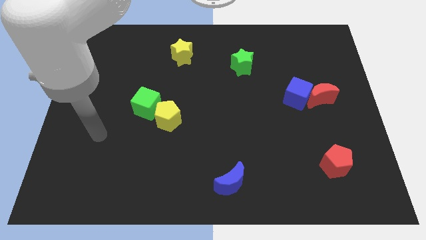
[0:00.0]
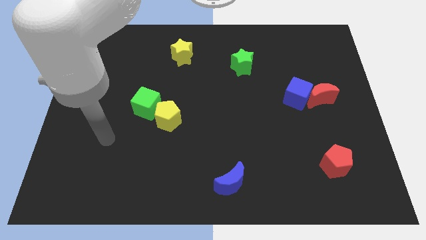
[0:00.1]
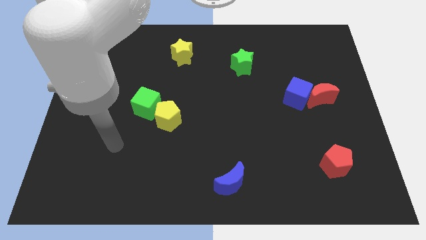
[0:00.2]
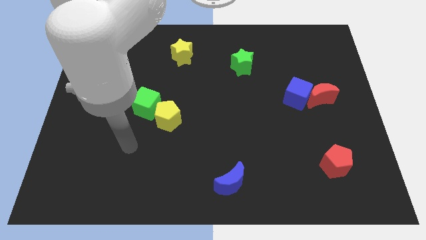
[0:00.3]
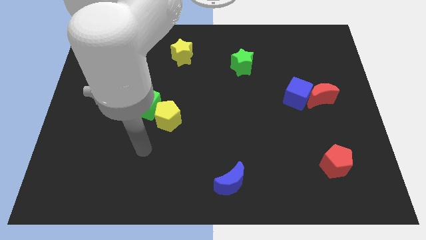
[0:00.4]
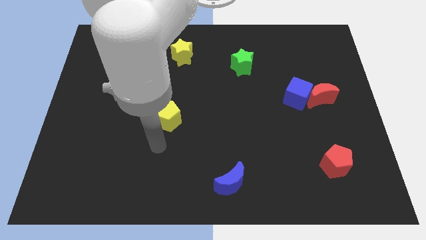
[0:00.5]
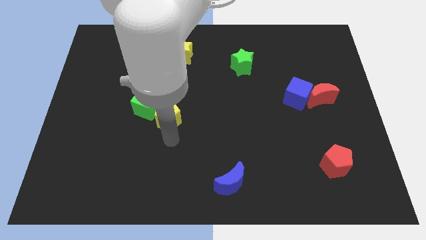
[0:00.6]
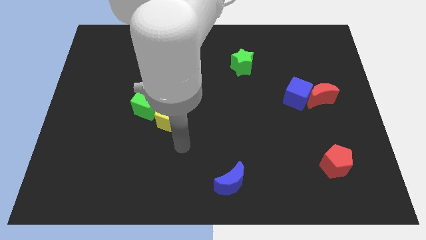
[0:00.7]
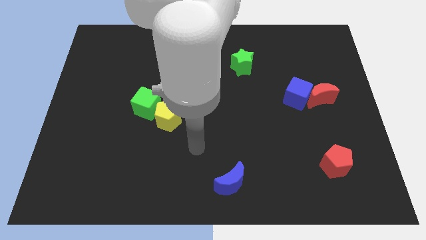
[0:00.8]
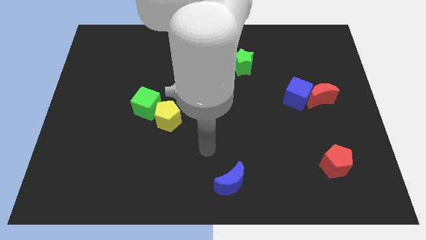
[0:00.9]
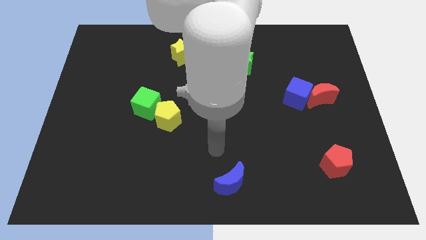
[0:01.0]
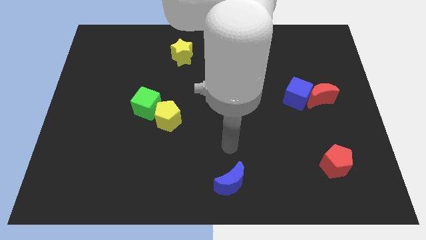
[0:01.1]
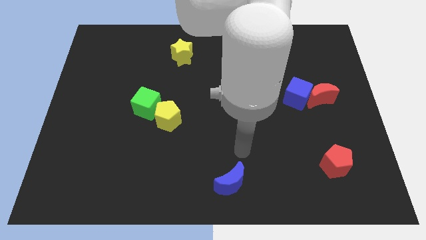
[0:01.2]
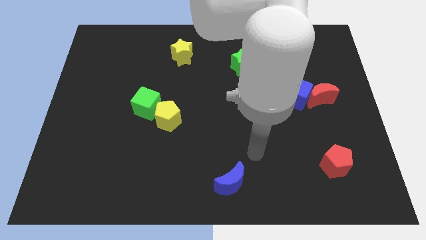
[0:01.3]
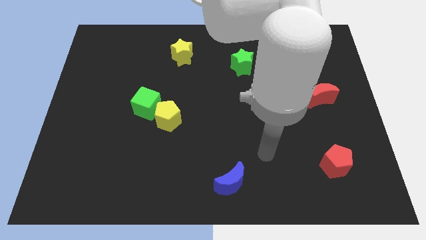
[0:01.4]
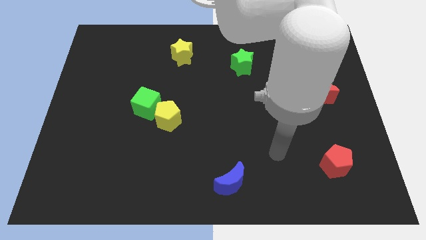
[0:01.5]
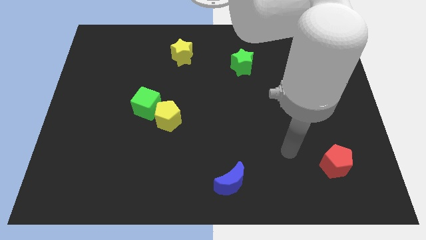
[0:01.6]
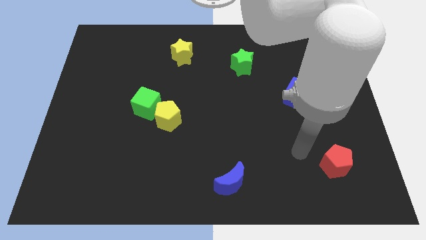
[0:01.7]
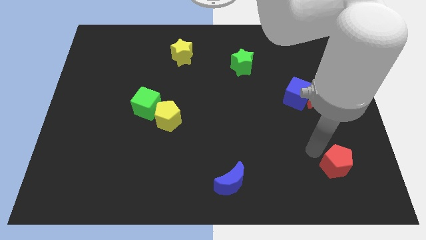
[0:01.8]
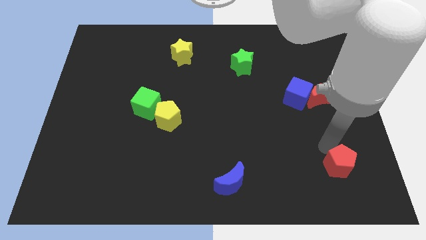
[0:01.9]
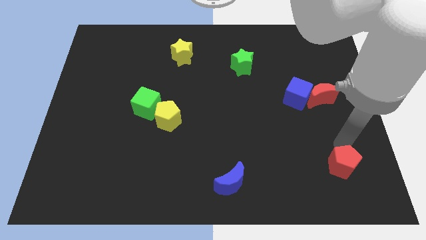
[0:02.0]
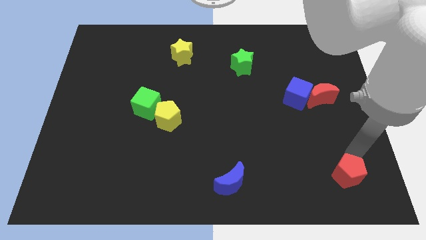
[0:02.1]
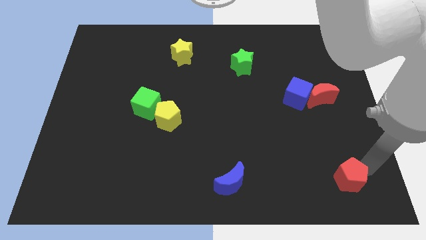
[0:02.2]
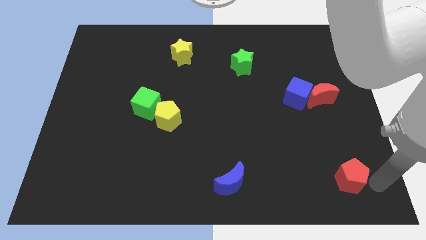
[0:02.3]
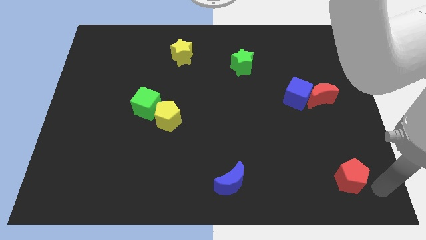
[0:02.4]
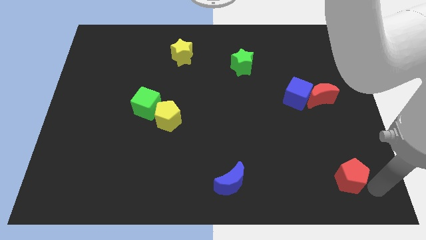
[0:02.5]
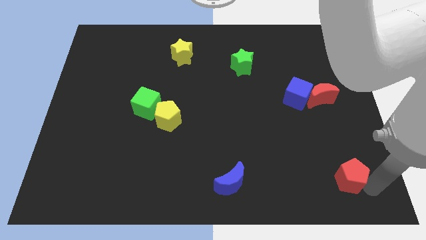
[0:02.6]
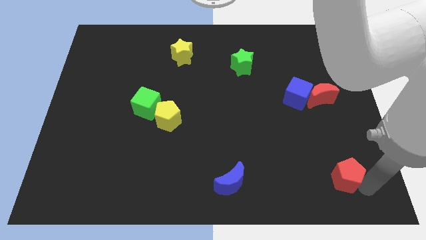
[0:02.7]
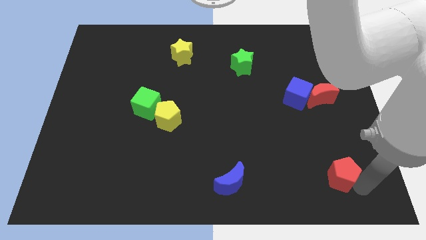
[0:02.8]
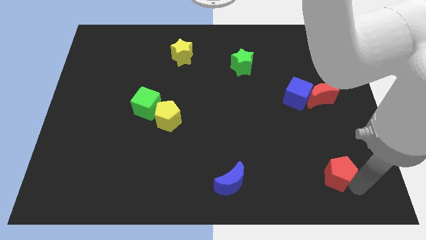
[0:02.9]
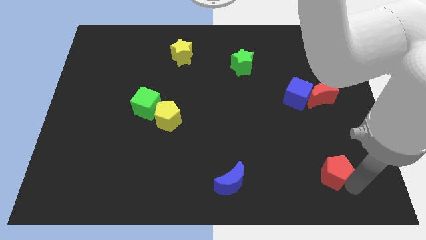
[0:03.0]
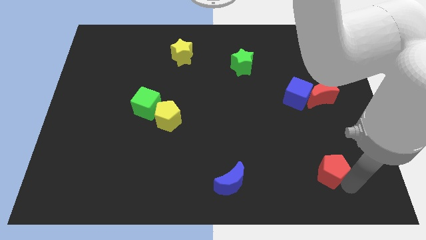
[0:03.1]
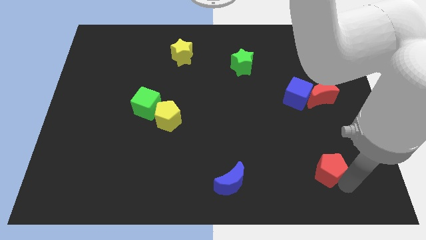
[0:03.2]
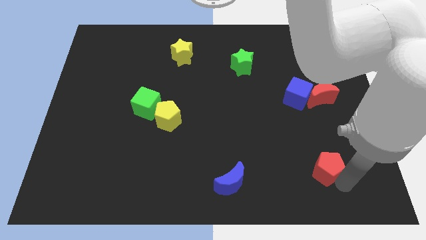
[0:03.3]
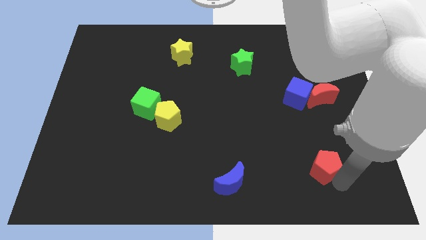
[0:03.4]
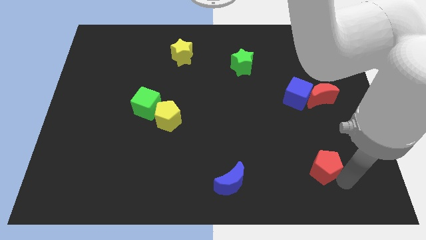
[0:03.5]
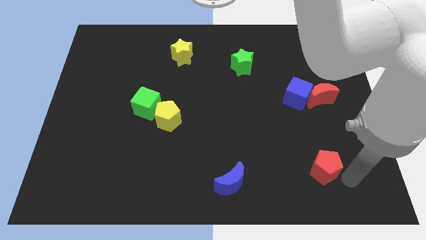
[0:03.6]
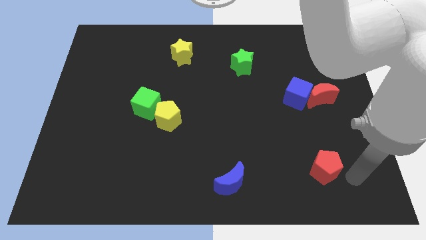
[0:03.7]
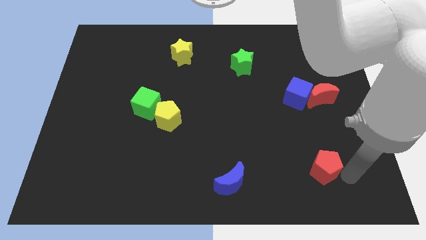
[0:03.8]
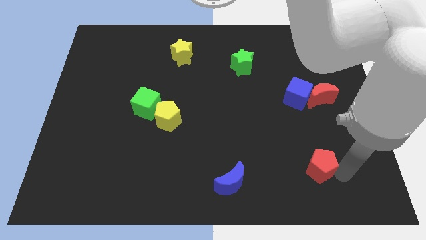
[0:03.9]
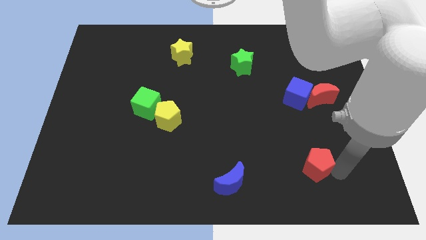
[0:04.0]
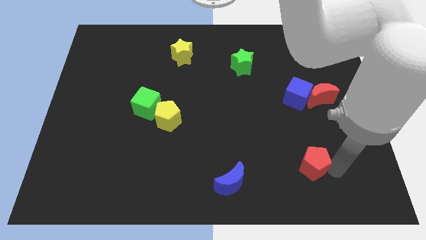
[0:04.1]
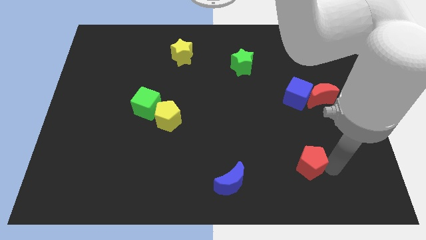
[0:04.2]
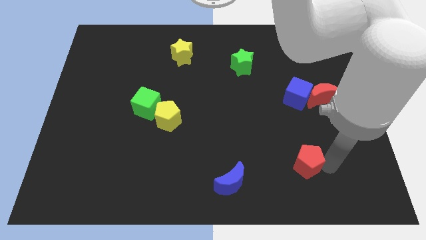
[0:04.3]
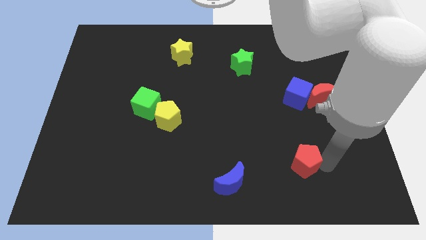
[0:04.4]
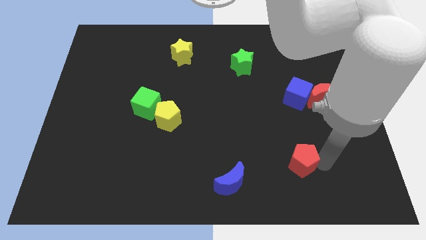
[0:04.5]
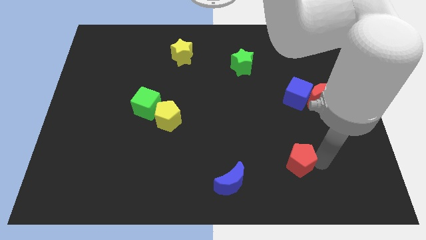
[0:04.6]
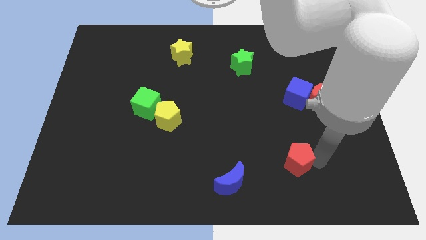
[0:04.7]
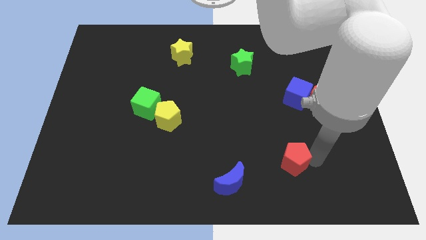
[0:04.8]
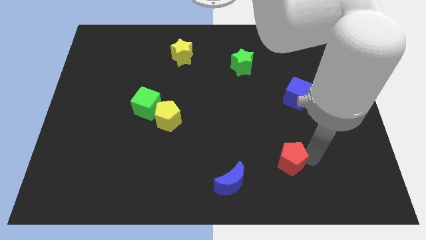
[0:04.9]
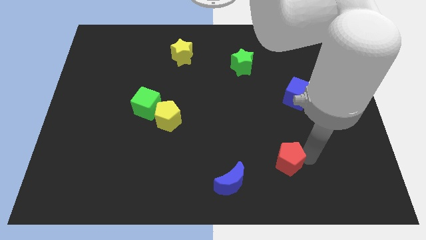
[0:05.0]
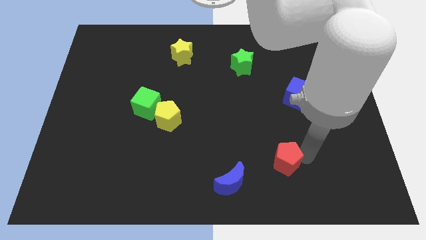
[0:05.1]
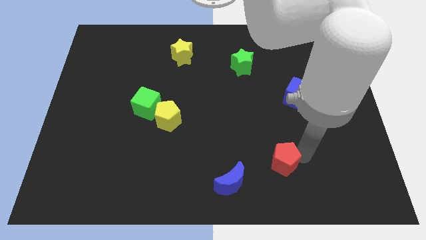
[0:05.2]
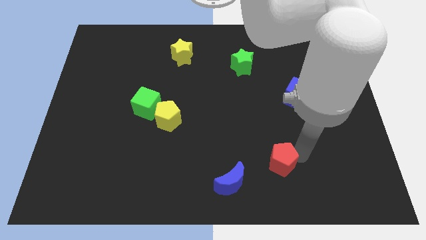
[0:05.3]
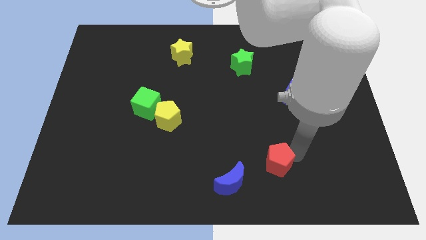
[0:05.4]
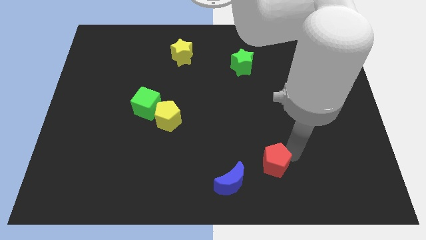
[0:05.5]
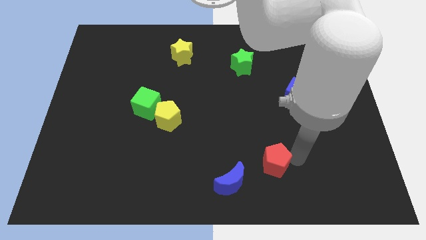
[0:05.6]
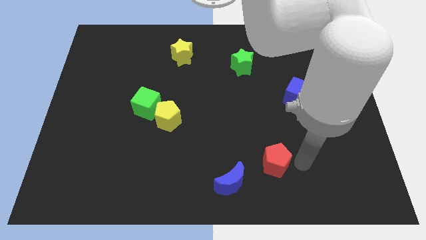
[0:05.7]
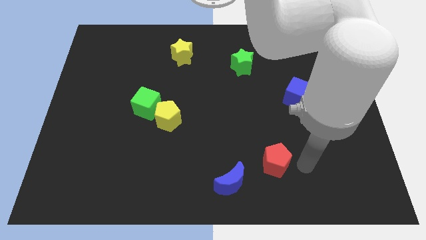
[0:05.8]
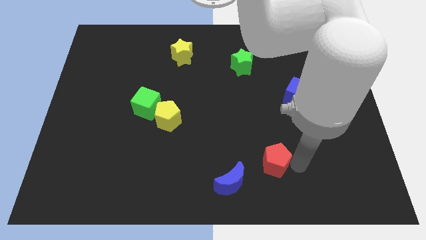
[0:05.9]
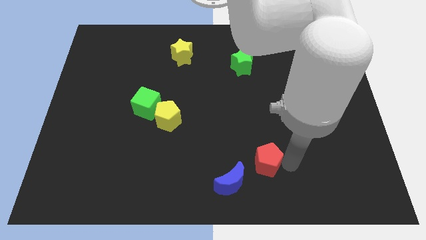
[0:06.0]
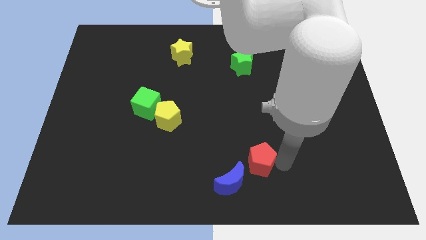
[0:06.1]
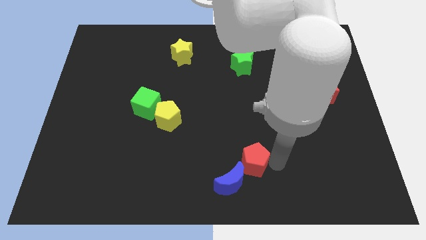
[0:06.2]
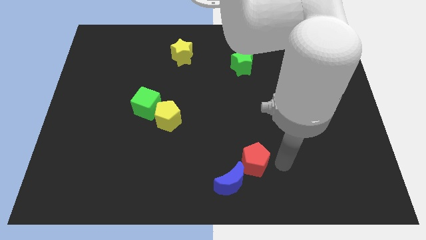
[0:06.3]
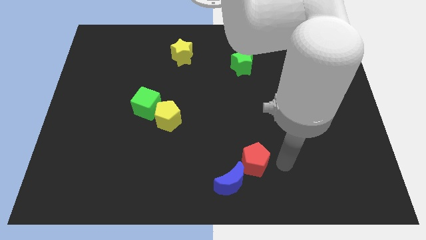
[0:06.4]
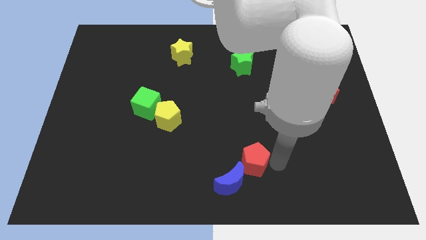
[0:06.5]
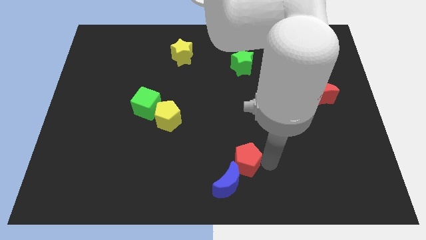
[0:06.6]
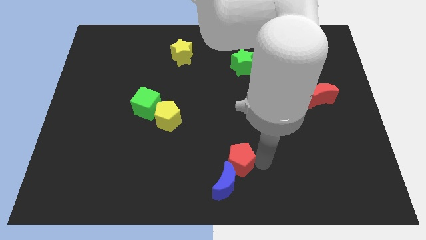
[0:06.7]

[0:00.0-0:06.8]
push the red pentagon to the left

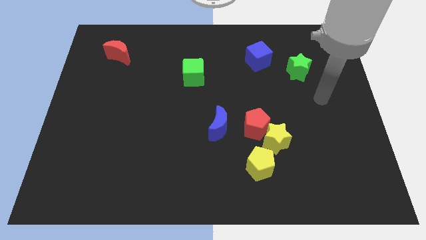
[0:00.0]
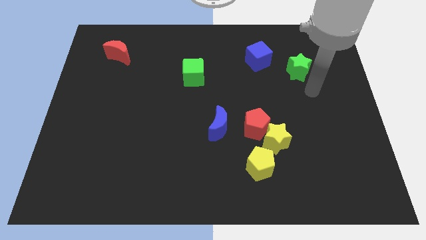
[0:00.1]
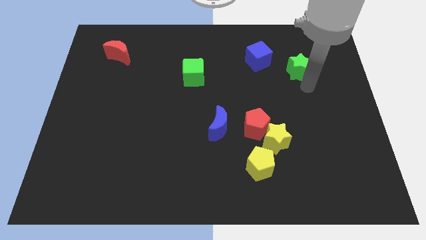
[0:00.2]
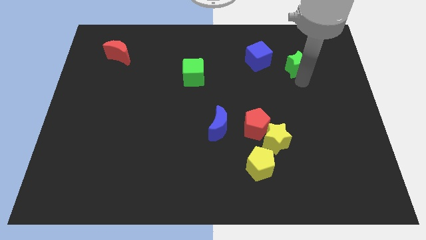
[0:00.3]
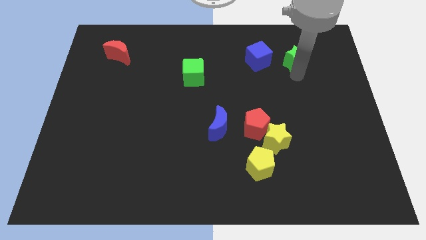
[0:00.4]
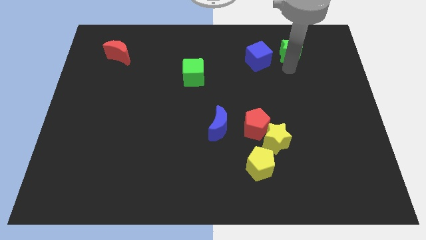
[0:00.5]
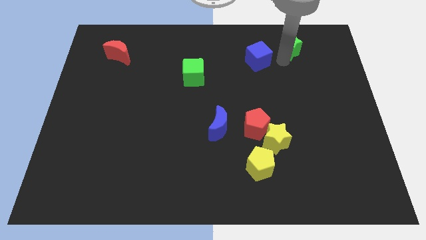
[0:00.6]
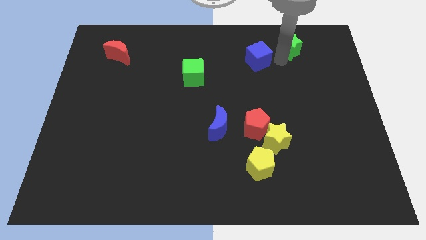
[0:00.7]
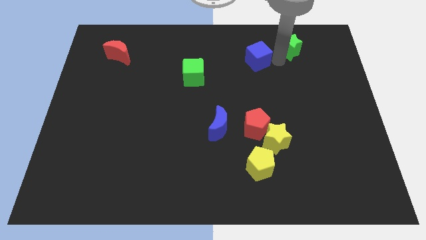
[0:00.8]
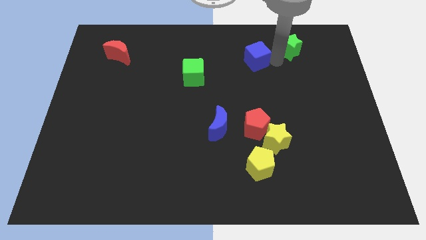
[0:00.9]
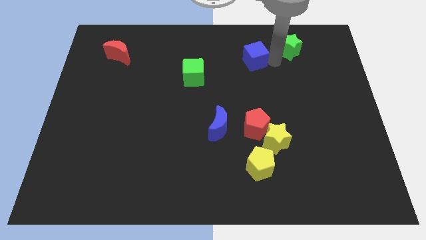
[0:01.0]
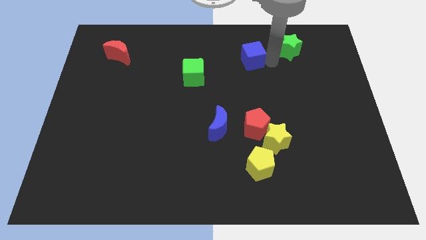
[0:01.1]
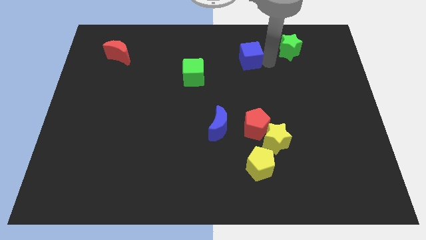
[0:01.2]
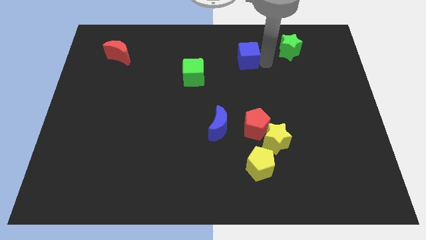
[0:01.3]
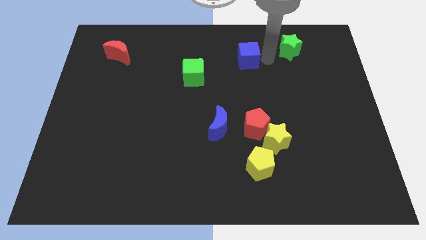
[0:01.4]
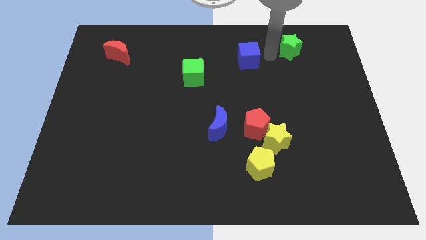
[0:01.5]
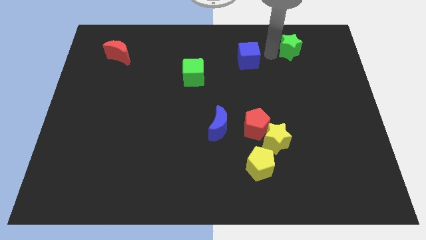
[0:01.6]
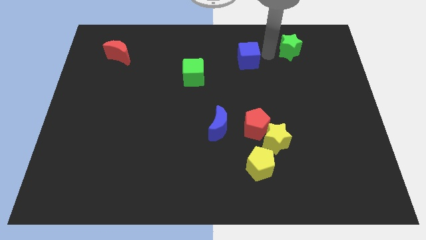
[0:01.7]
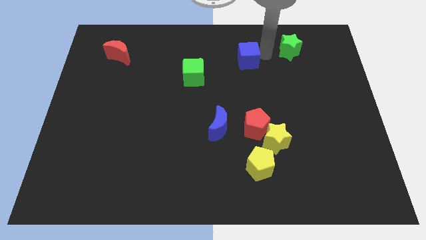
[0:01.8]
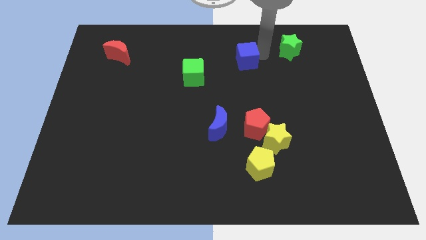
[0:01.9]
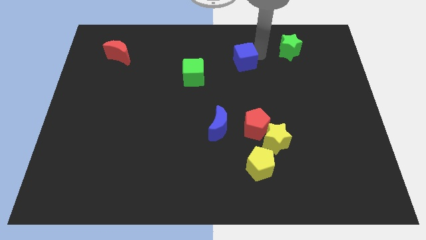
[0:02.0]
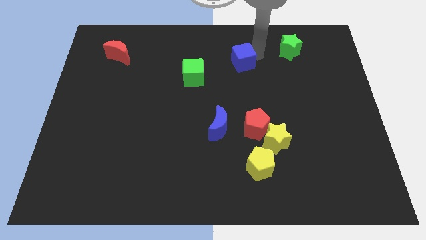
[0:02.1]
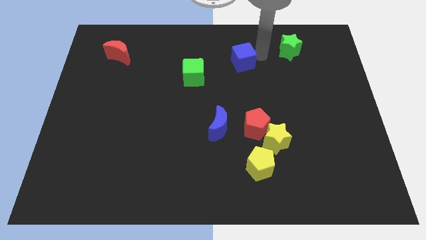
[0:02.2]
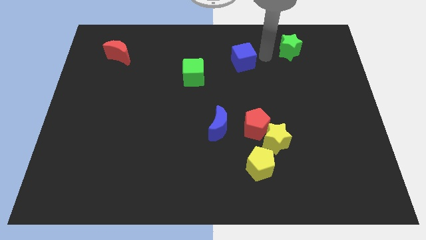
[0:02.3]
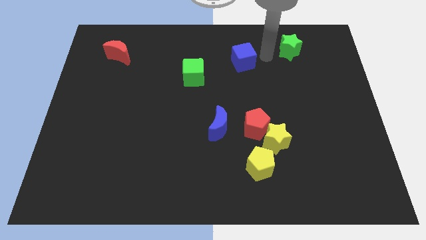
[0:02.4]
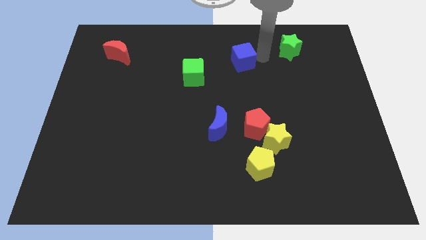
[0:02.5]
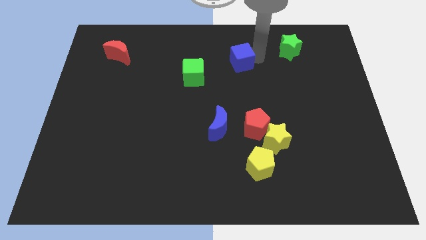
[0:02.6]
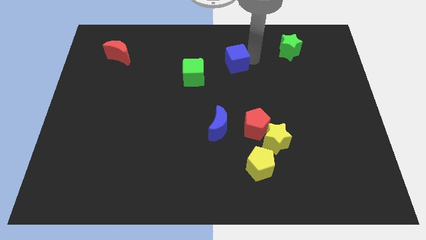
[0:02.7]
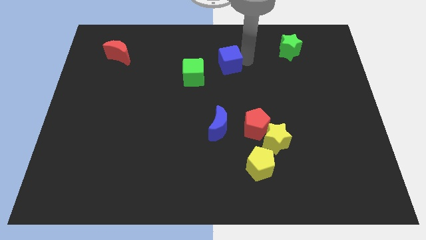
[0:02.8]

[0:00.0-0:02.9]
slightly move the blue cube left
